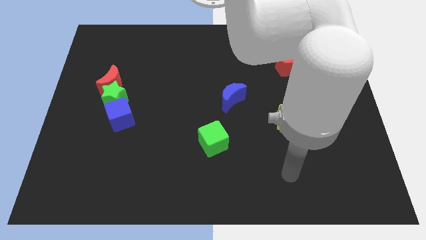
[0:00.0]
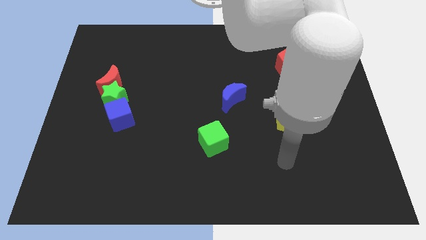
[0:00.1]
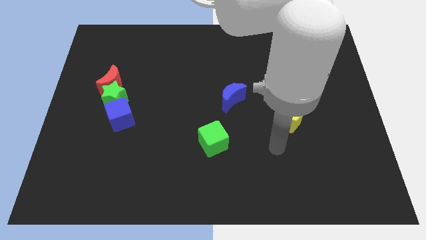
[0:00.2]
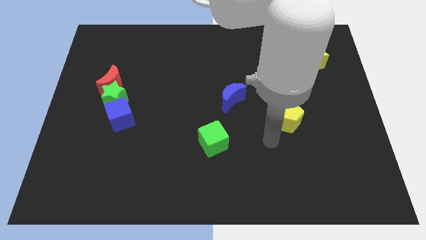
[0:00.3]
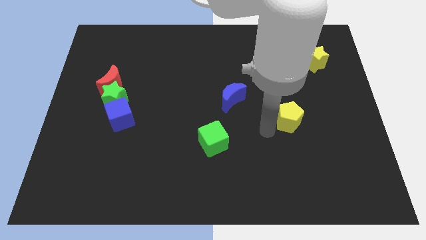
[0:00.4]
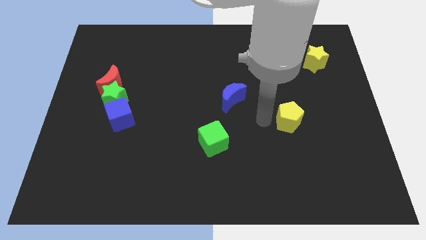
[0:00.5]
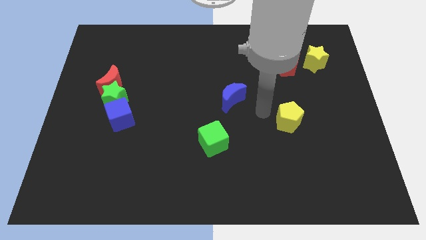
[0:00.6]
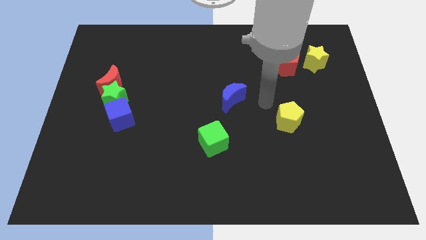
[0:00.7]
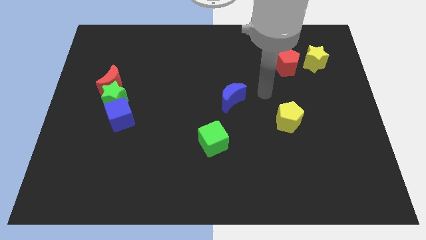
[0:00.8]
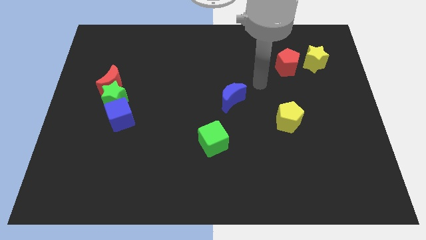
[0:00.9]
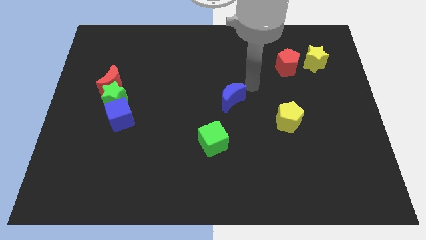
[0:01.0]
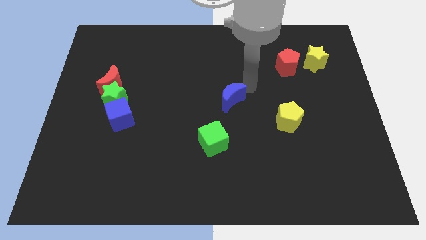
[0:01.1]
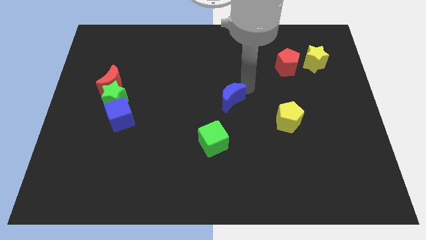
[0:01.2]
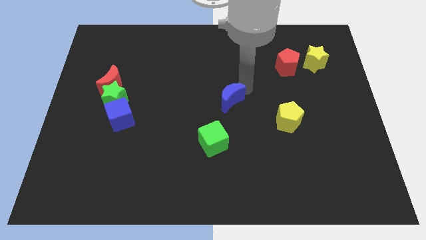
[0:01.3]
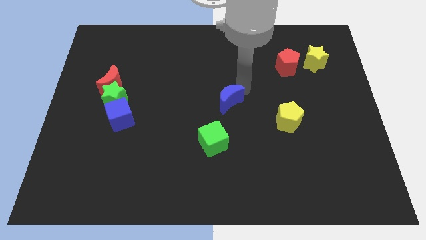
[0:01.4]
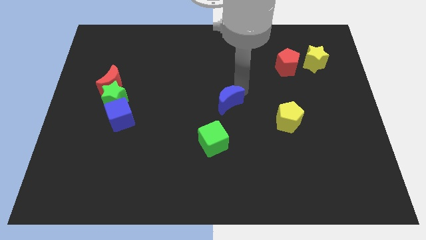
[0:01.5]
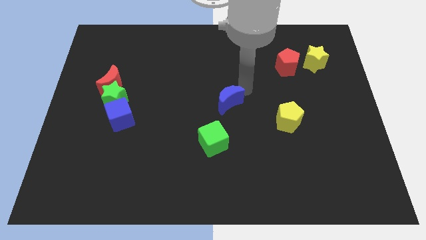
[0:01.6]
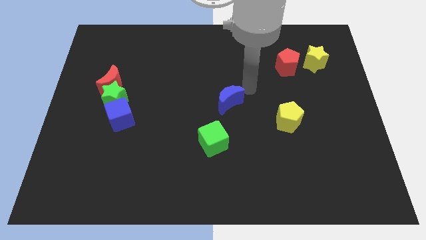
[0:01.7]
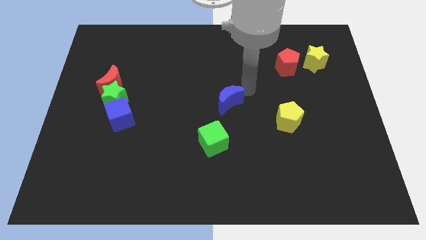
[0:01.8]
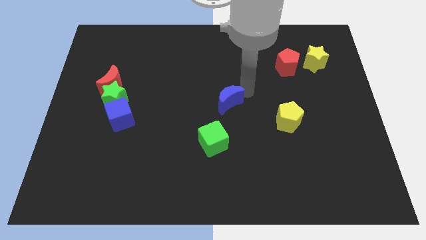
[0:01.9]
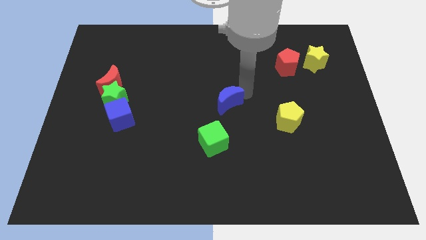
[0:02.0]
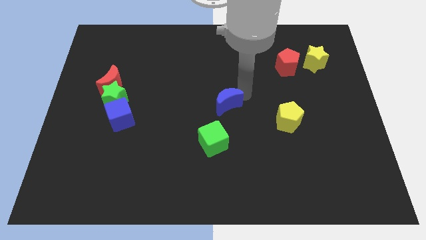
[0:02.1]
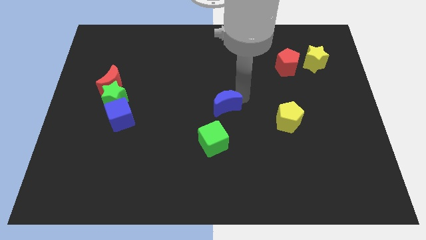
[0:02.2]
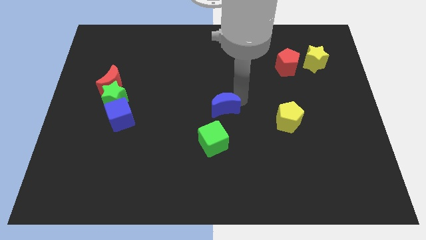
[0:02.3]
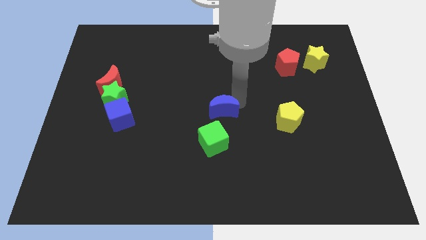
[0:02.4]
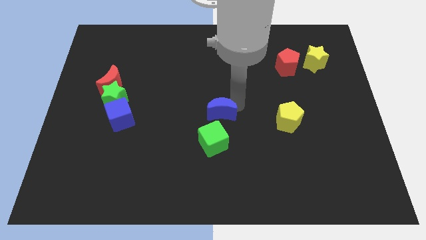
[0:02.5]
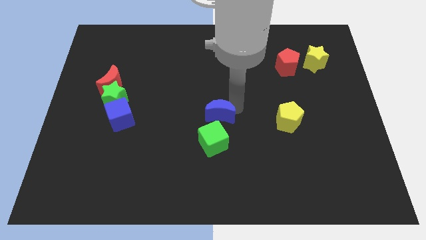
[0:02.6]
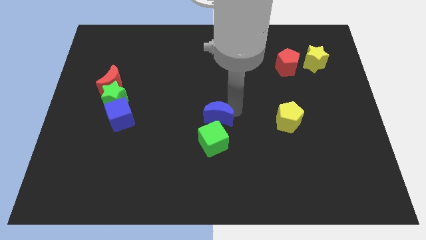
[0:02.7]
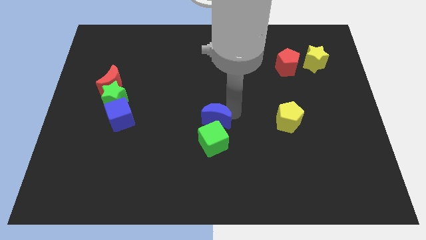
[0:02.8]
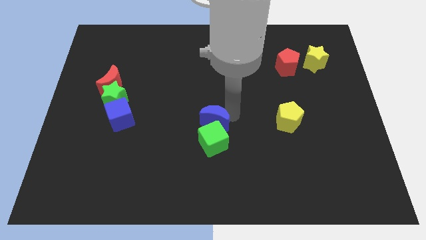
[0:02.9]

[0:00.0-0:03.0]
push the blue moon downwards and left a little bit

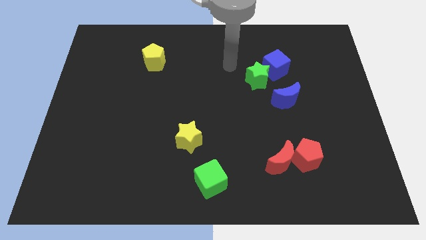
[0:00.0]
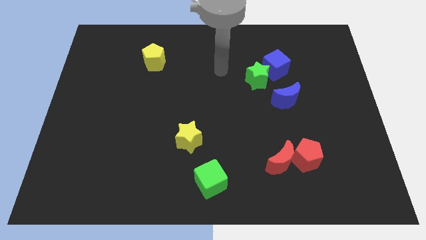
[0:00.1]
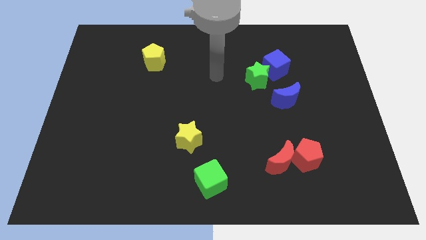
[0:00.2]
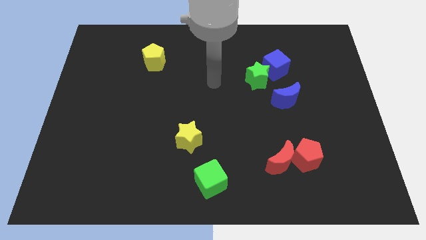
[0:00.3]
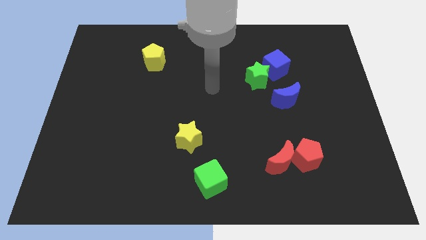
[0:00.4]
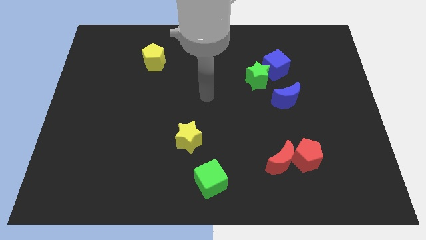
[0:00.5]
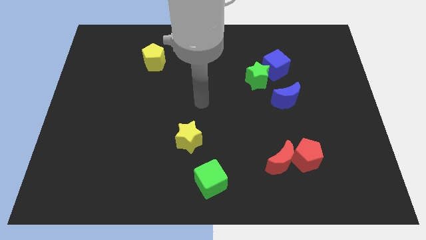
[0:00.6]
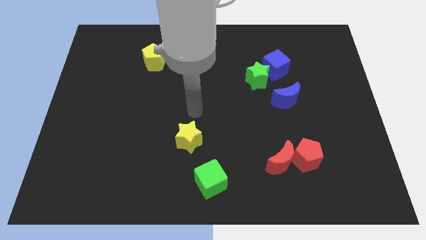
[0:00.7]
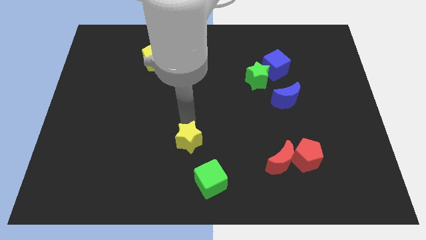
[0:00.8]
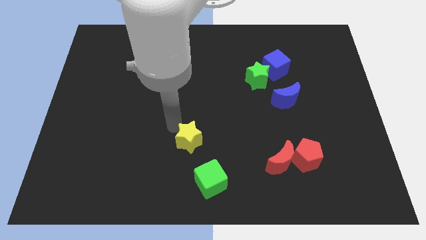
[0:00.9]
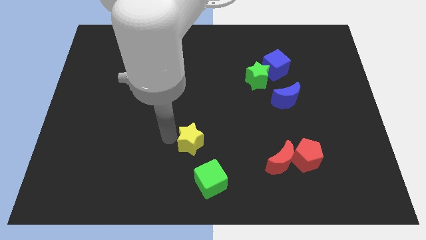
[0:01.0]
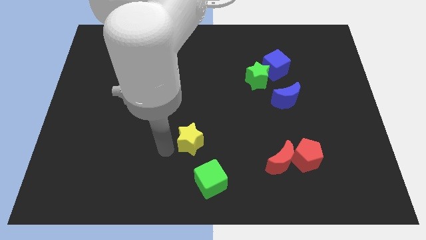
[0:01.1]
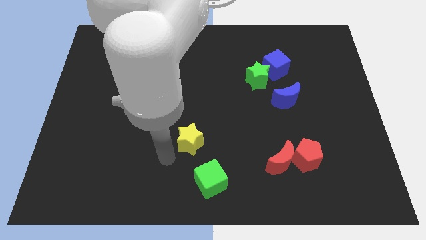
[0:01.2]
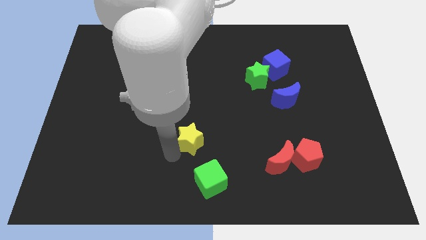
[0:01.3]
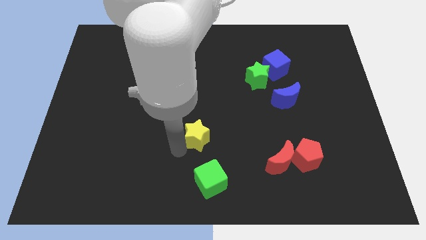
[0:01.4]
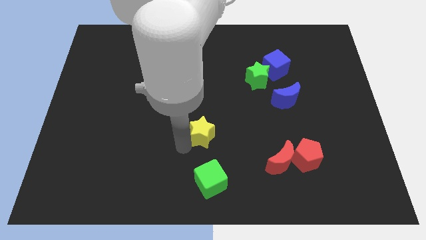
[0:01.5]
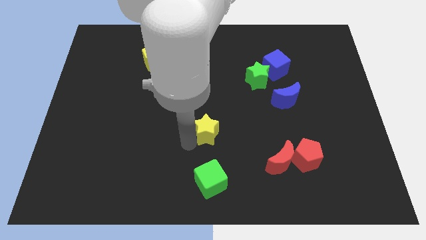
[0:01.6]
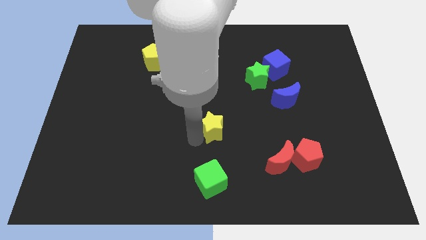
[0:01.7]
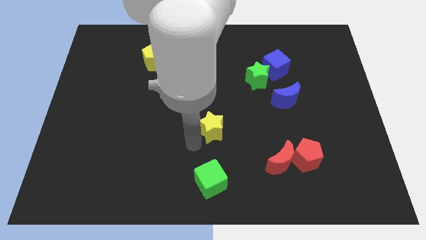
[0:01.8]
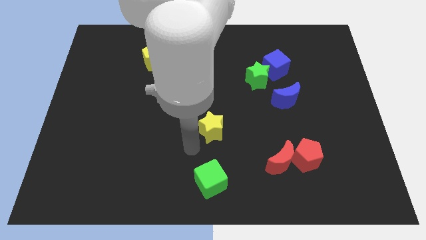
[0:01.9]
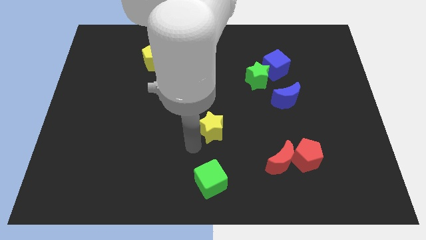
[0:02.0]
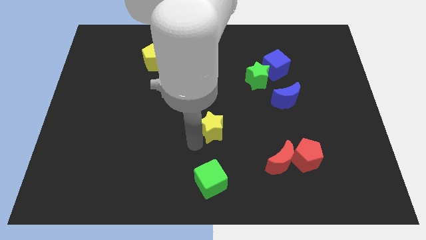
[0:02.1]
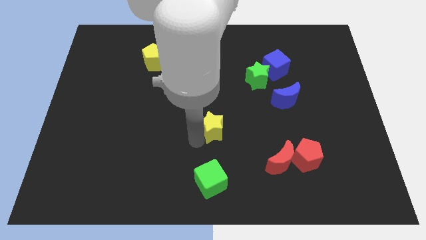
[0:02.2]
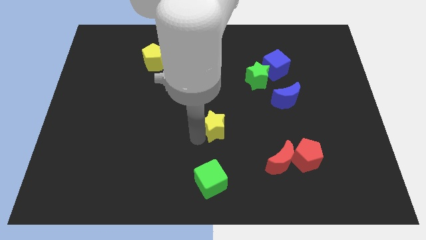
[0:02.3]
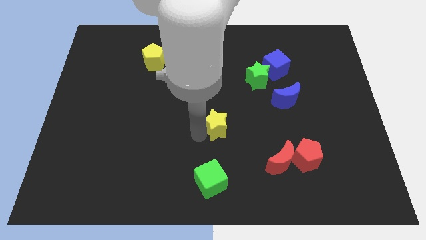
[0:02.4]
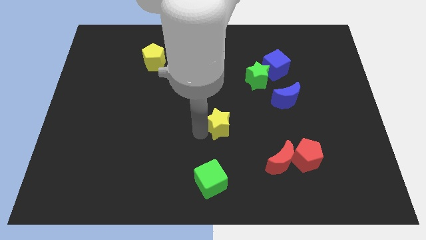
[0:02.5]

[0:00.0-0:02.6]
slightly push the yellow star up and then to the right

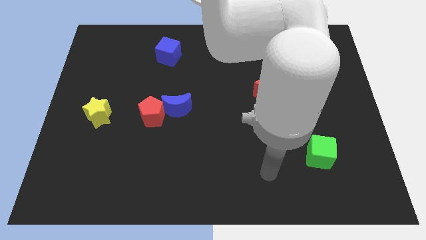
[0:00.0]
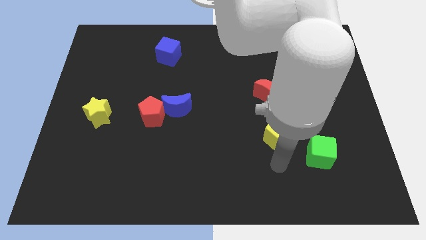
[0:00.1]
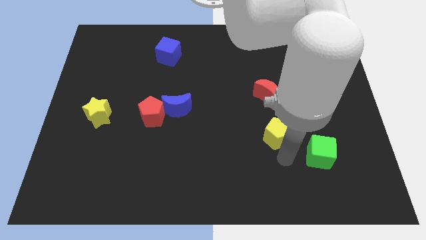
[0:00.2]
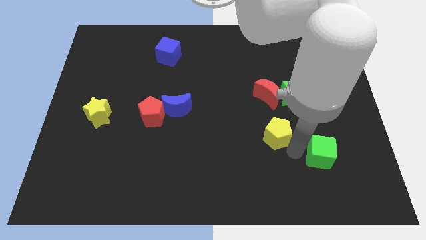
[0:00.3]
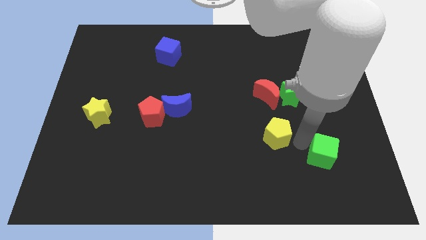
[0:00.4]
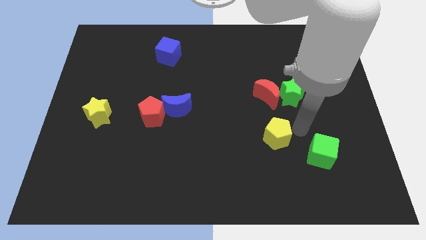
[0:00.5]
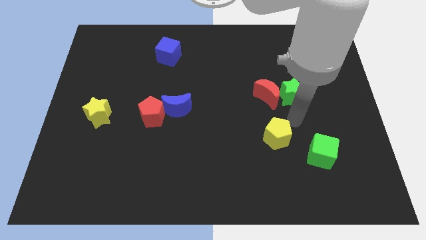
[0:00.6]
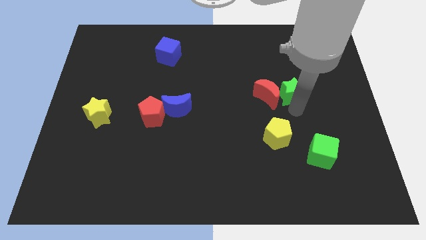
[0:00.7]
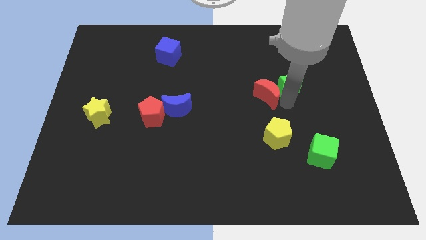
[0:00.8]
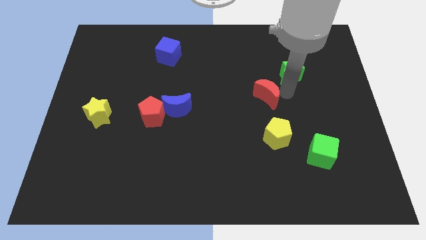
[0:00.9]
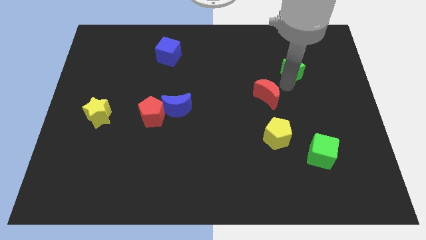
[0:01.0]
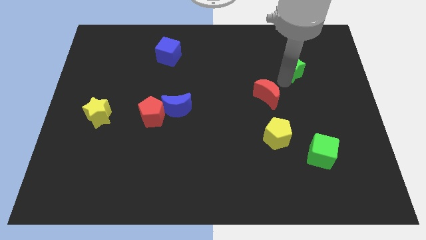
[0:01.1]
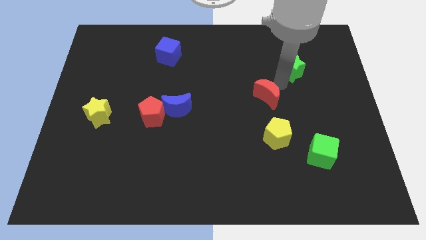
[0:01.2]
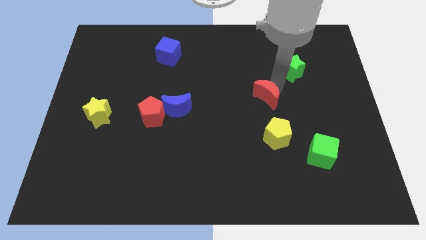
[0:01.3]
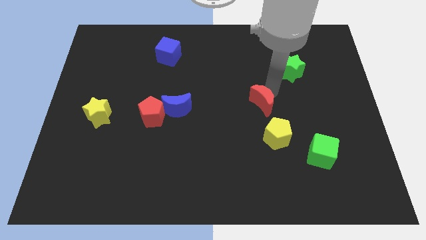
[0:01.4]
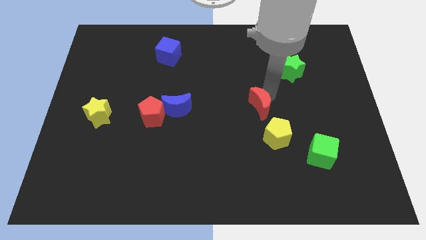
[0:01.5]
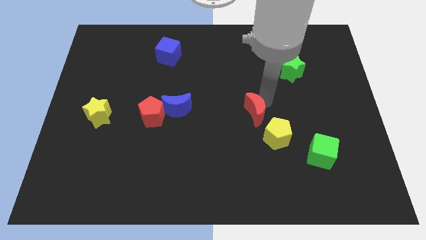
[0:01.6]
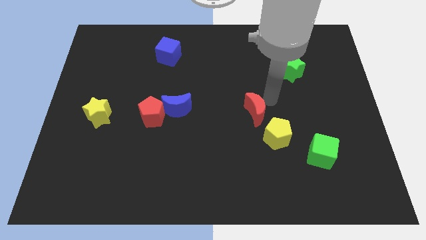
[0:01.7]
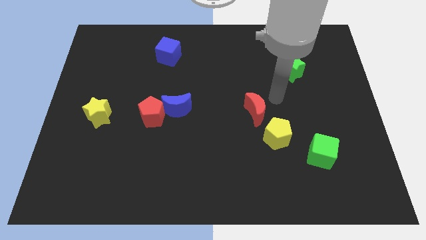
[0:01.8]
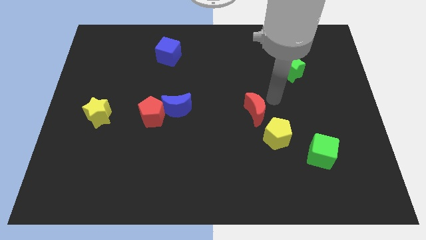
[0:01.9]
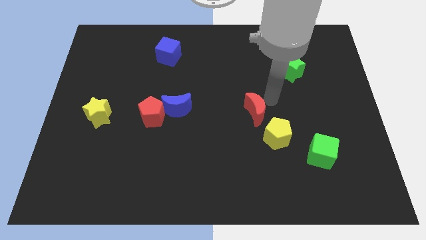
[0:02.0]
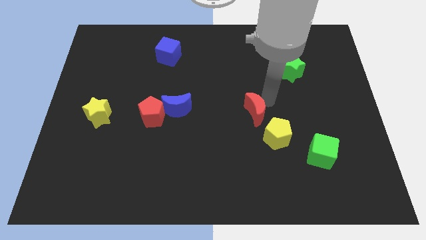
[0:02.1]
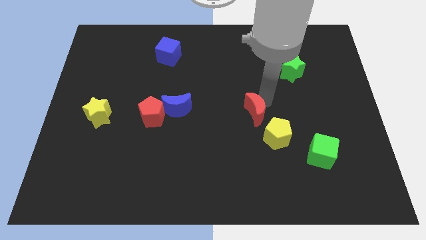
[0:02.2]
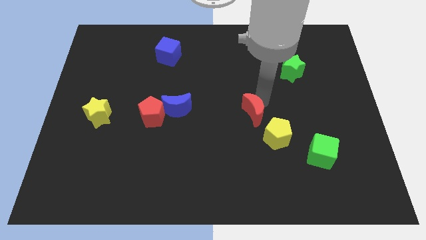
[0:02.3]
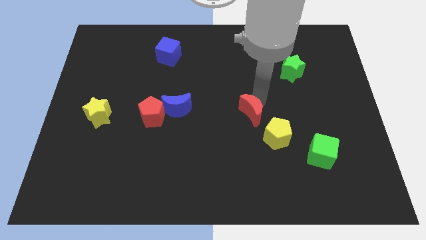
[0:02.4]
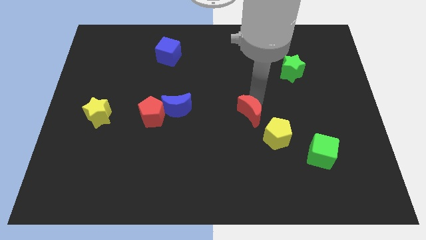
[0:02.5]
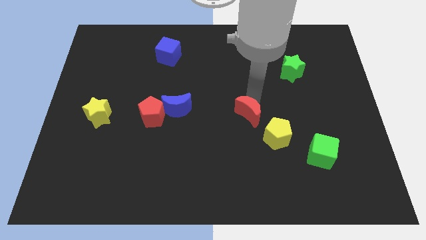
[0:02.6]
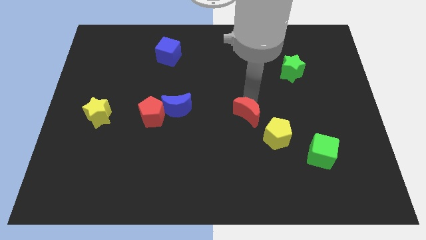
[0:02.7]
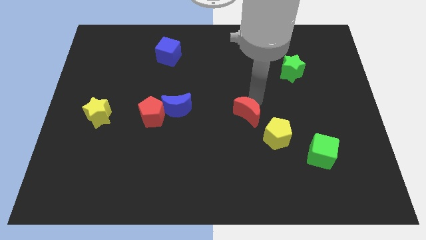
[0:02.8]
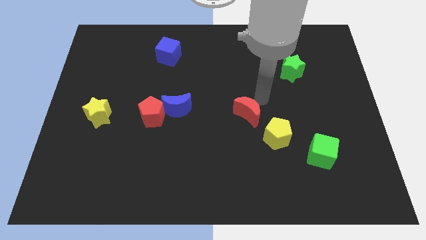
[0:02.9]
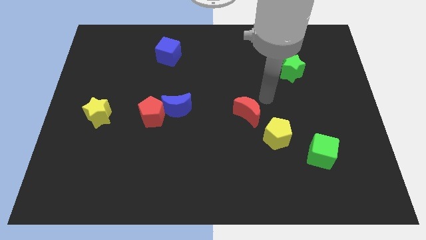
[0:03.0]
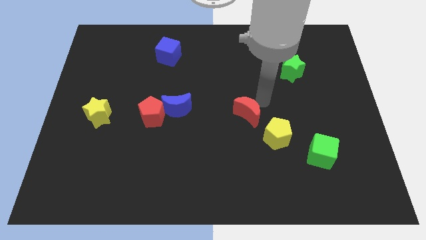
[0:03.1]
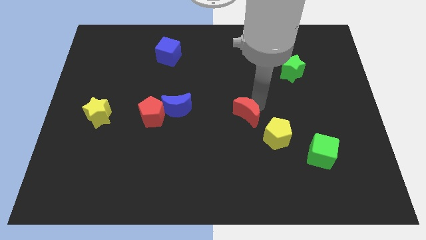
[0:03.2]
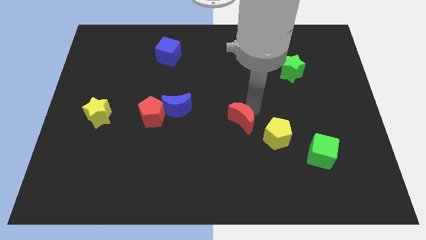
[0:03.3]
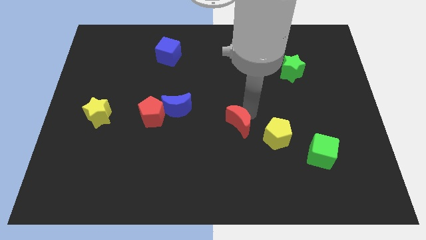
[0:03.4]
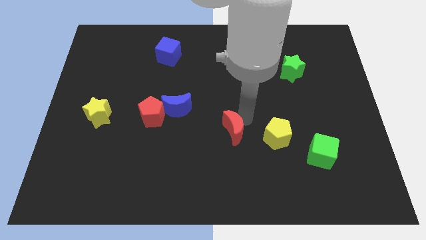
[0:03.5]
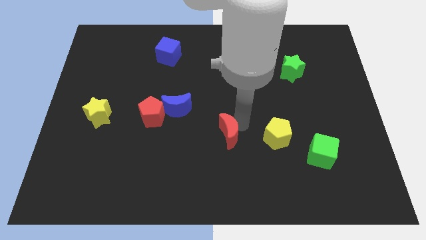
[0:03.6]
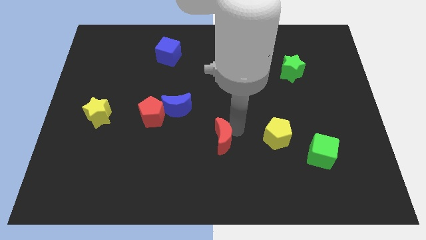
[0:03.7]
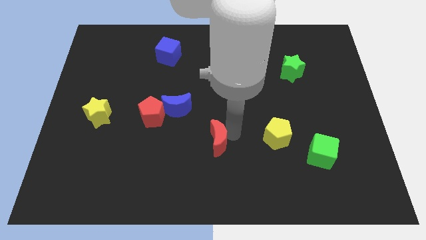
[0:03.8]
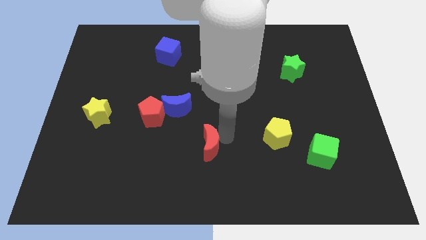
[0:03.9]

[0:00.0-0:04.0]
move the red moon downwards and then left
